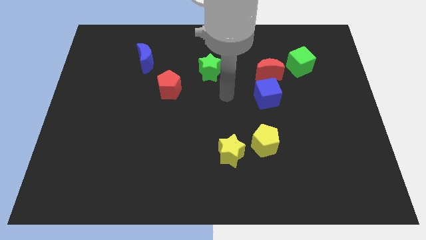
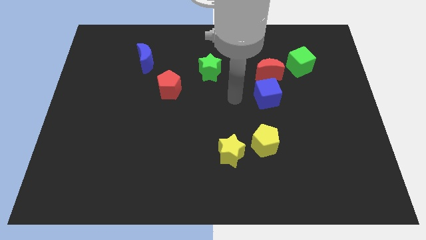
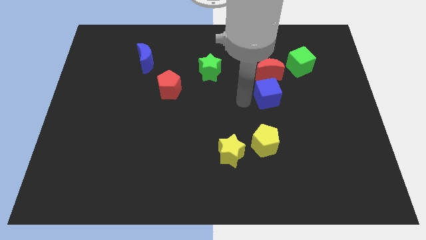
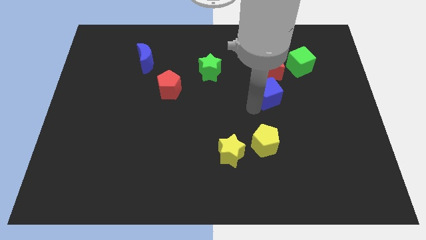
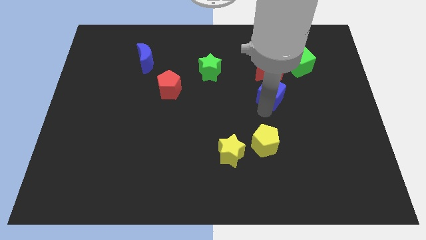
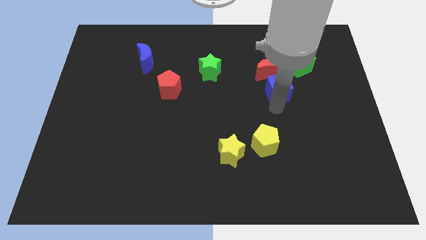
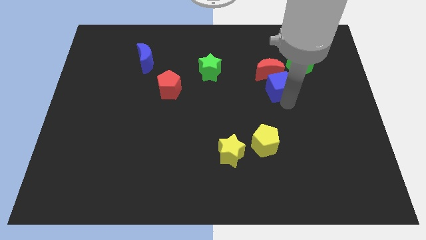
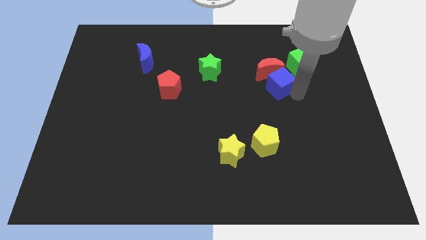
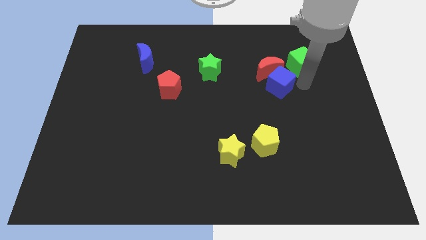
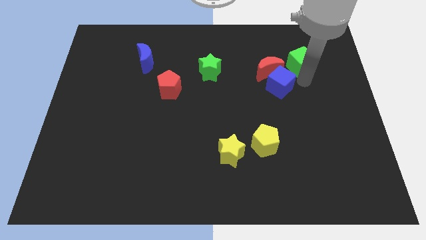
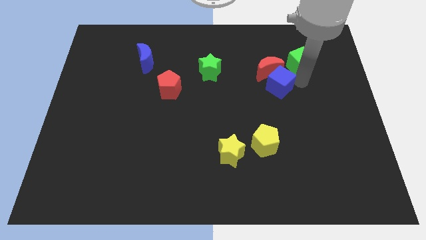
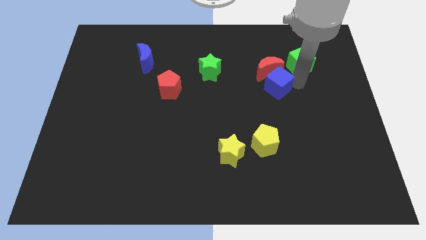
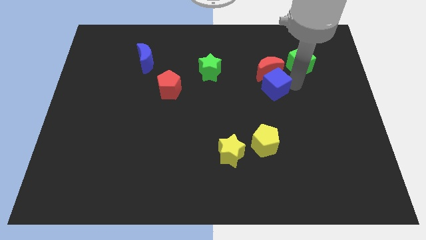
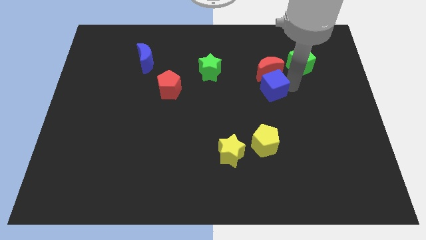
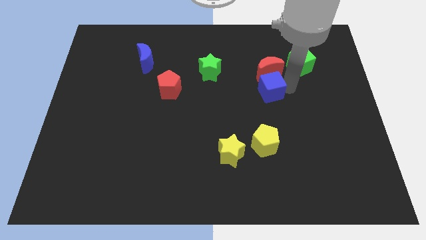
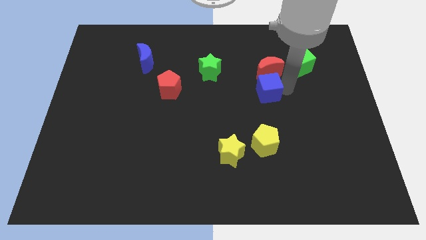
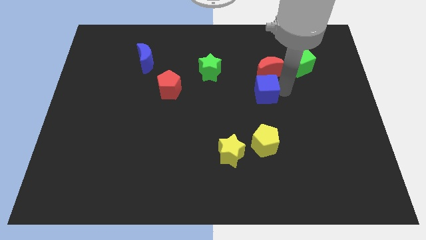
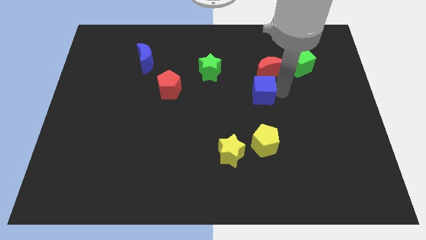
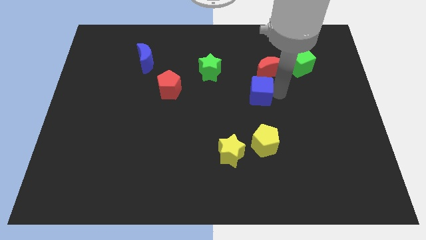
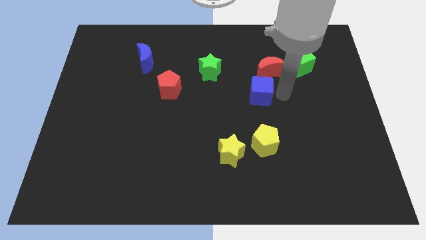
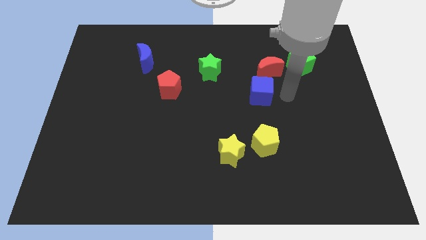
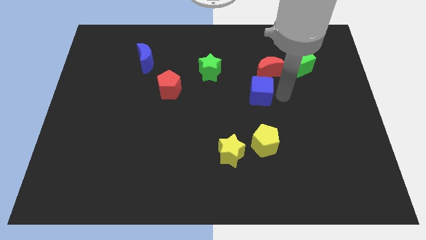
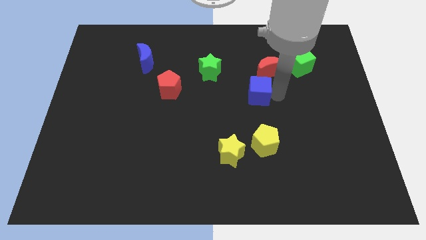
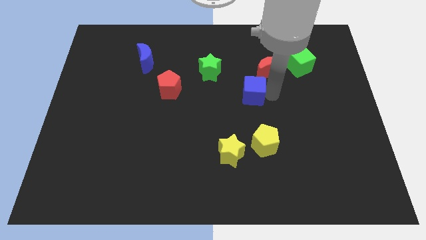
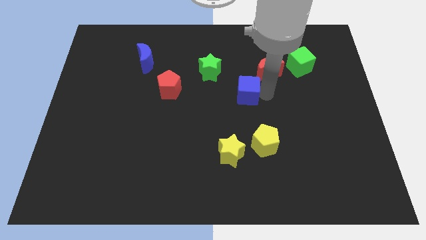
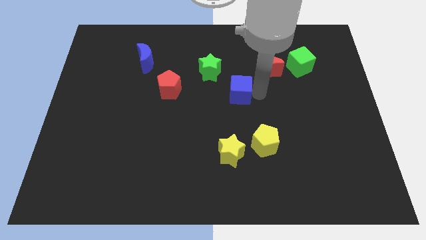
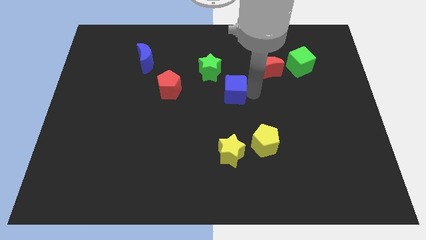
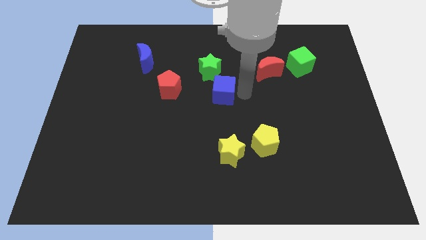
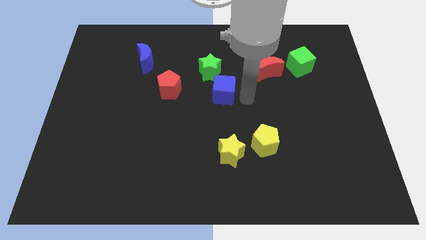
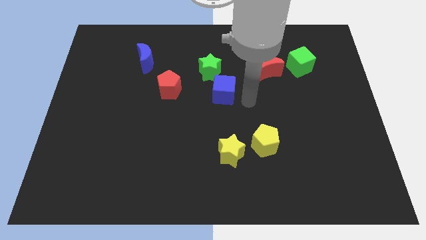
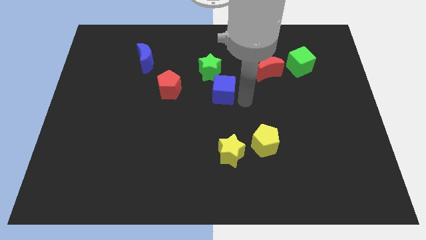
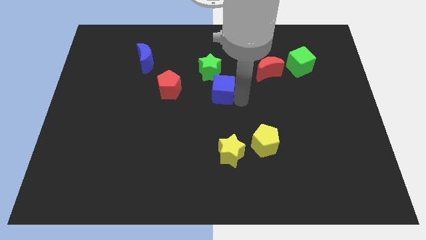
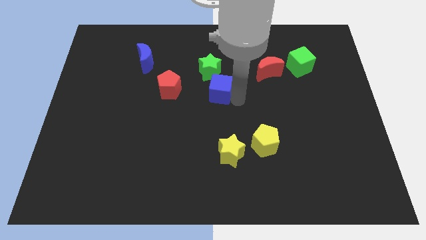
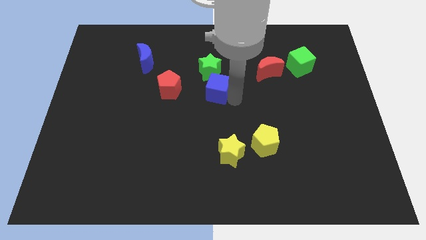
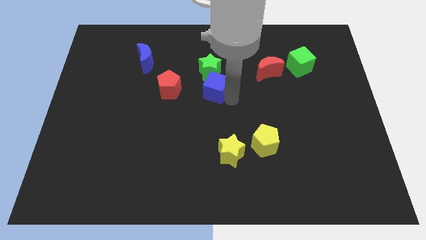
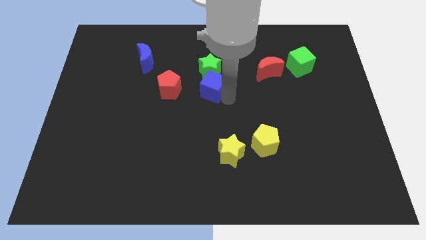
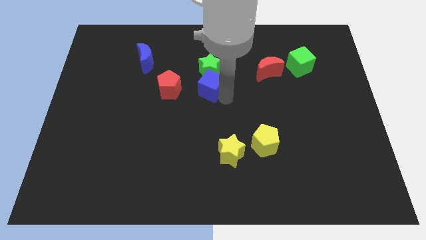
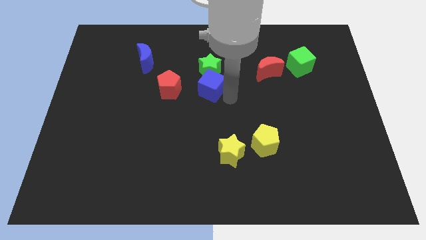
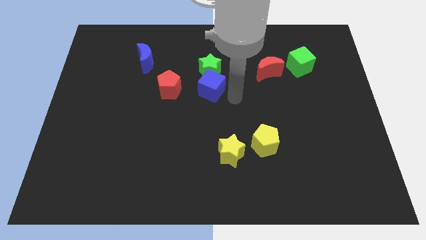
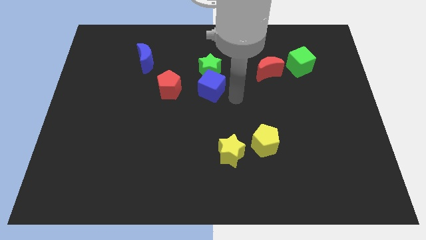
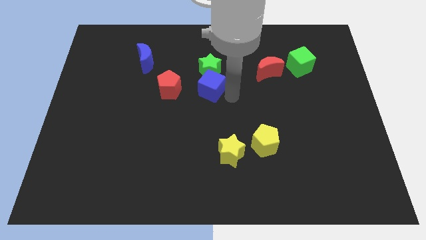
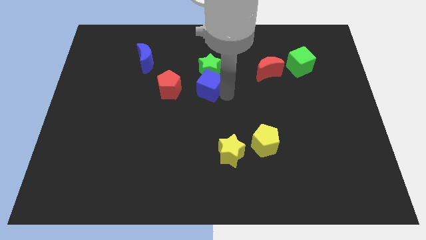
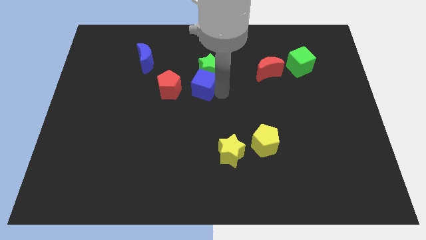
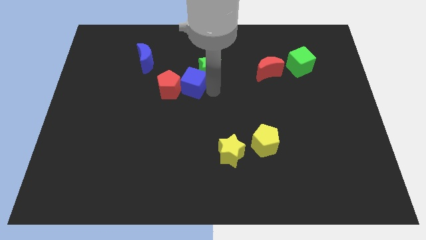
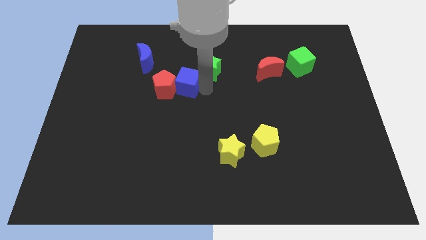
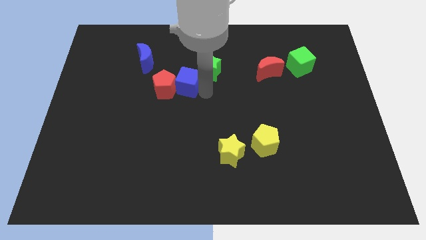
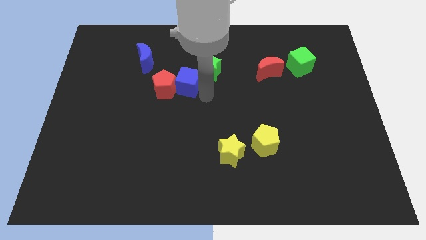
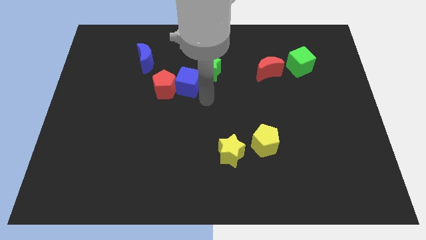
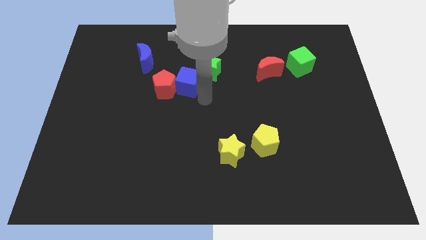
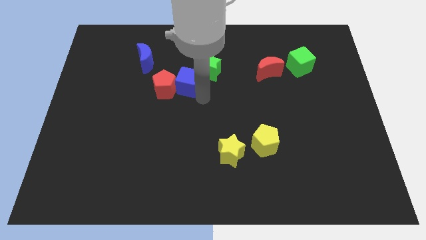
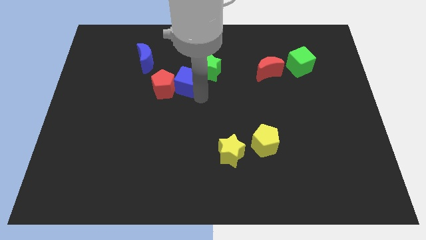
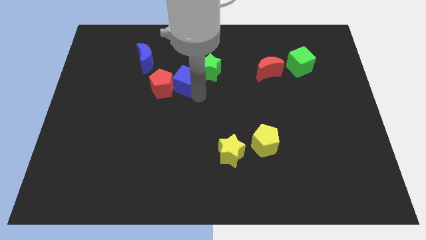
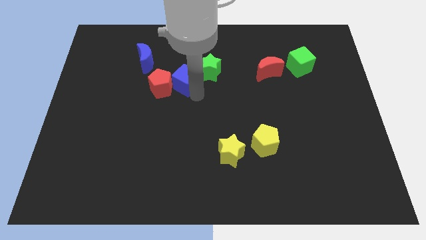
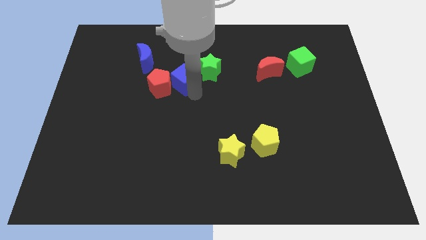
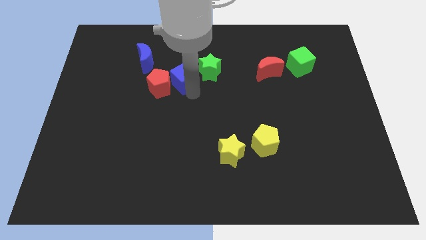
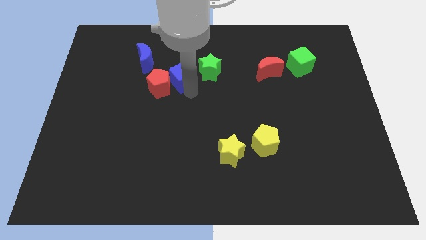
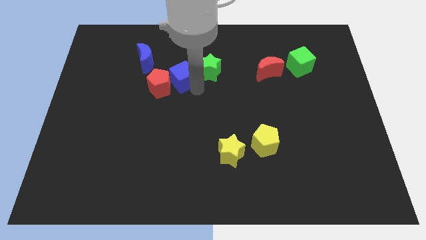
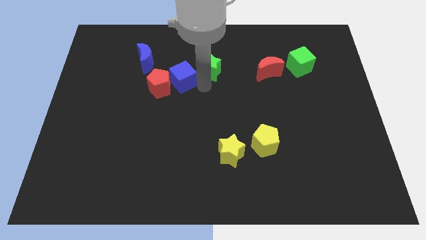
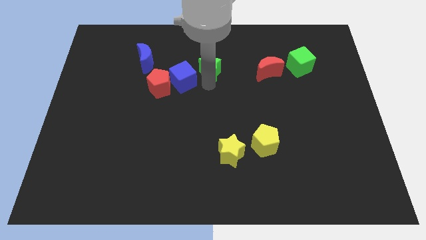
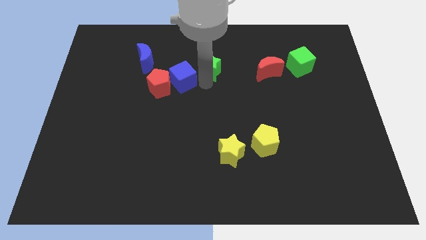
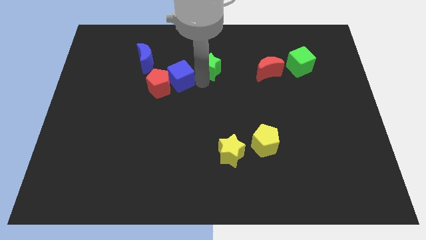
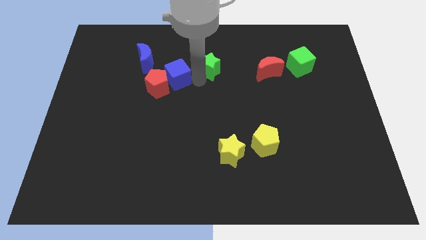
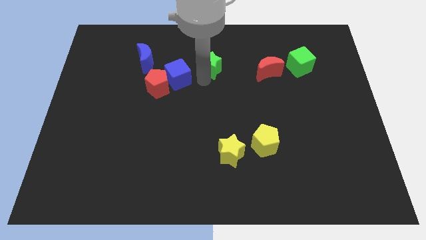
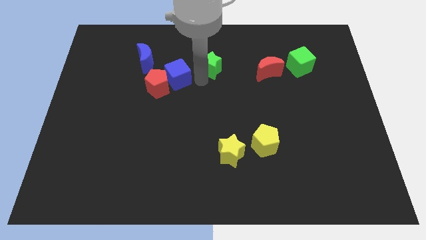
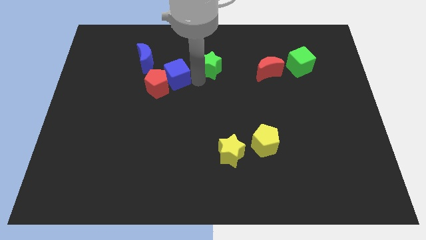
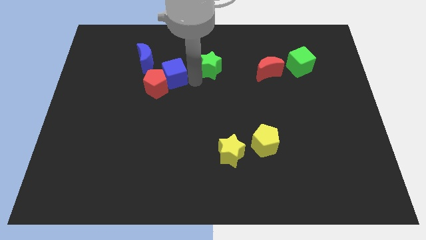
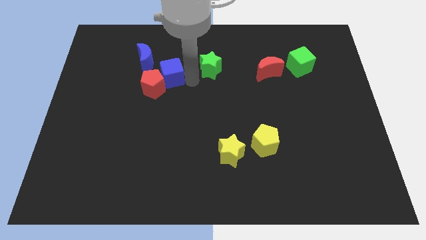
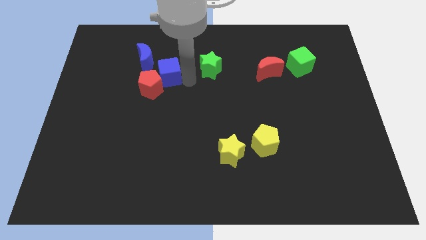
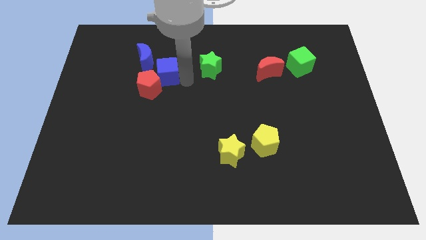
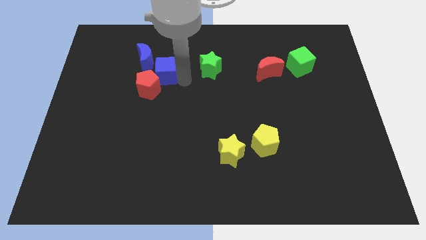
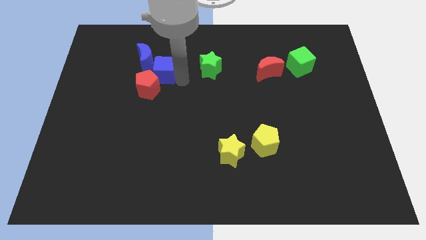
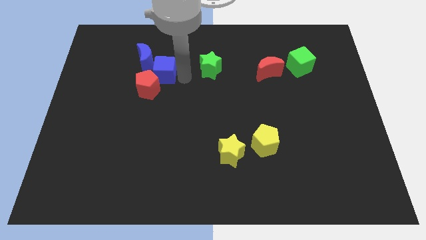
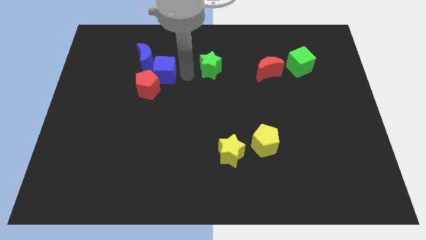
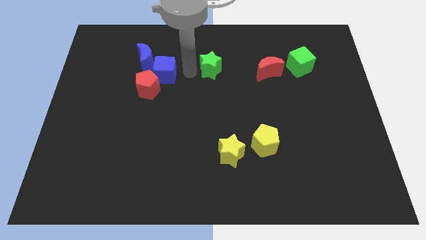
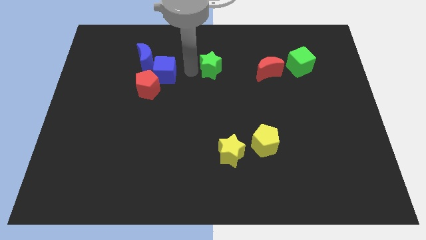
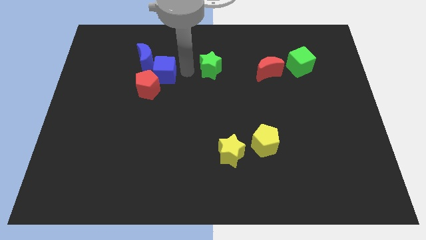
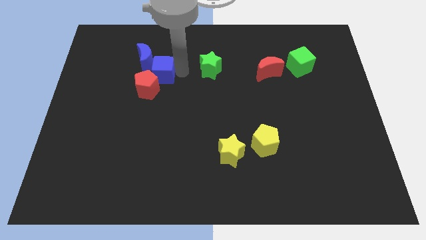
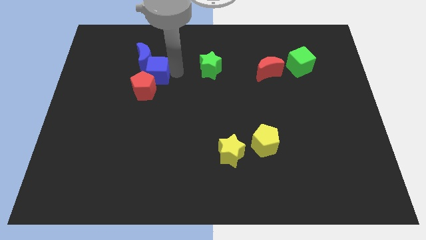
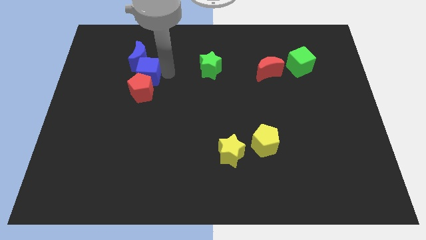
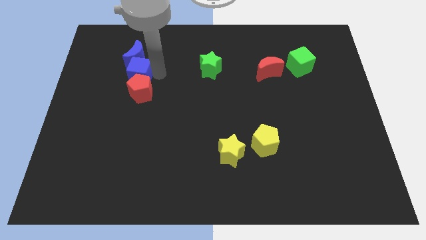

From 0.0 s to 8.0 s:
put the blue cube diagonally down and to the left of the blue moon
